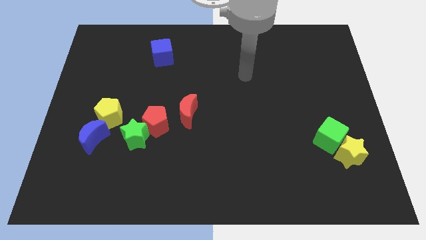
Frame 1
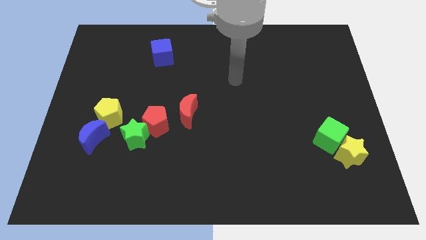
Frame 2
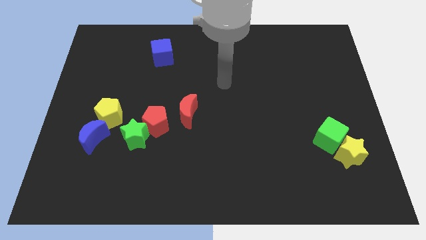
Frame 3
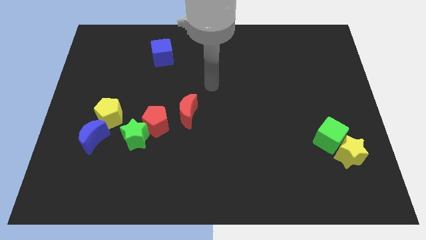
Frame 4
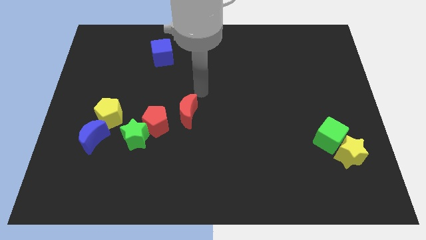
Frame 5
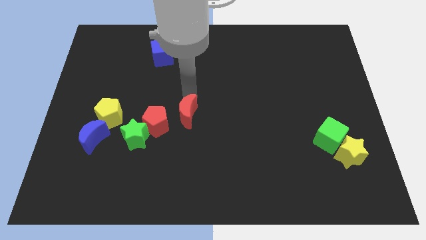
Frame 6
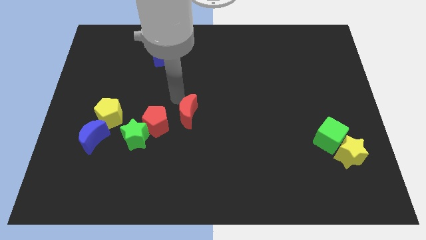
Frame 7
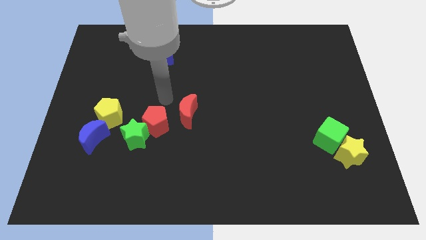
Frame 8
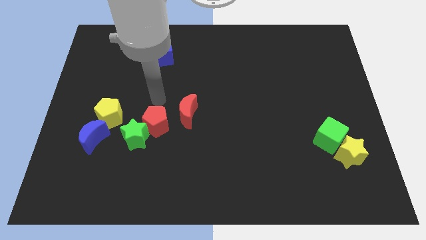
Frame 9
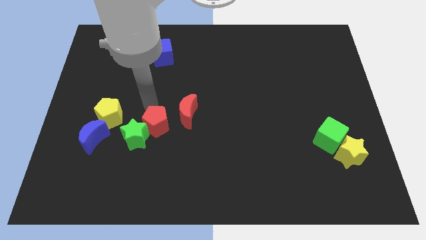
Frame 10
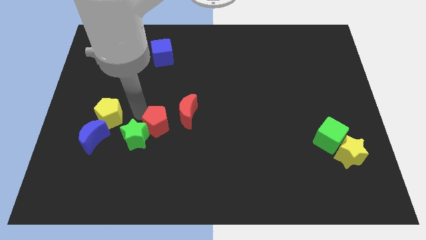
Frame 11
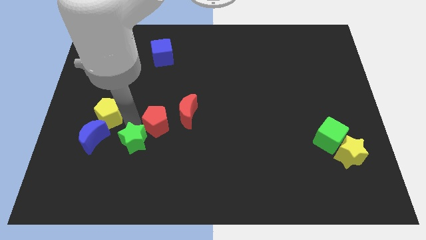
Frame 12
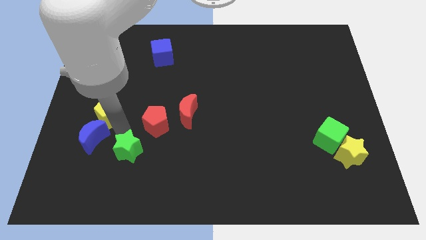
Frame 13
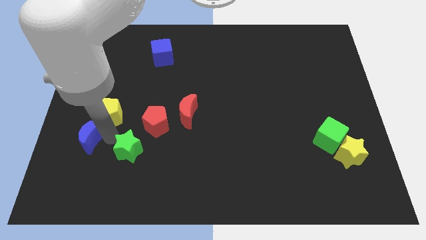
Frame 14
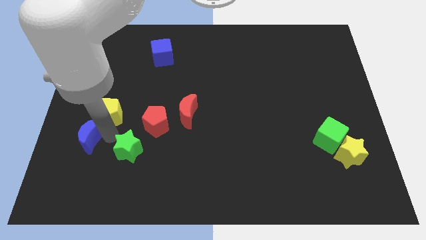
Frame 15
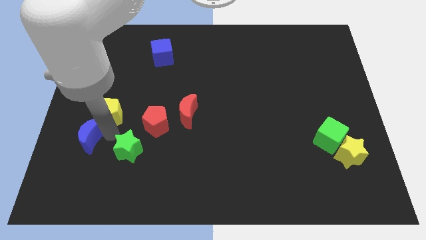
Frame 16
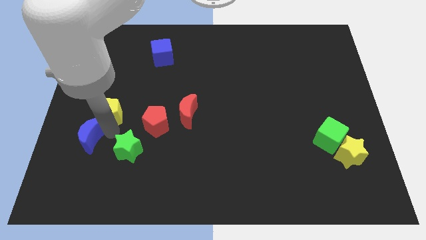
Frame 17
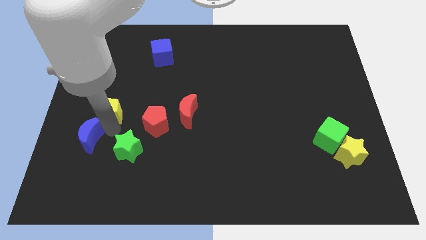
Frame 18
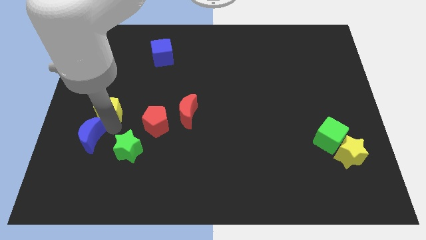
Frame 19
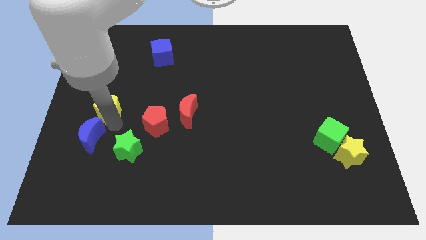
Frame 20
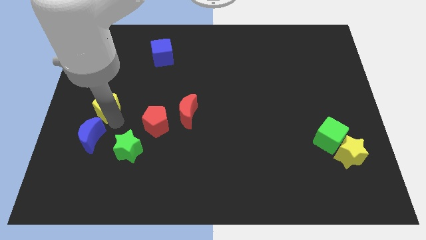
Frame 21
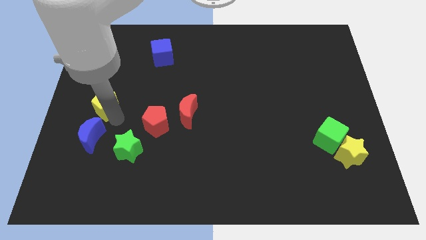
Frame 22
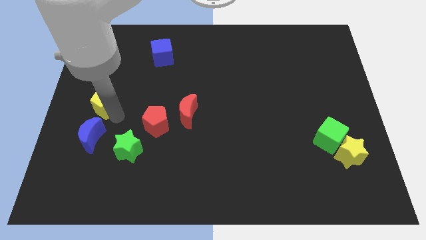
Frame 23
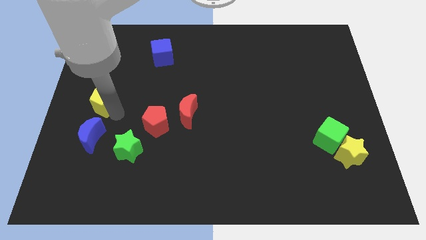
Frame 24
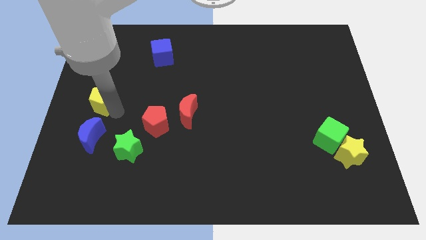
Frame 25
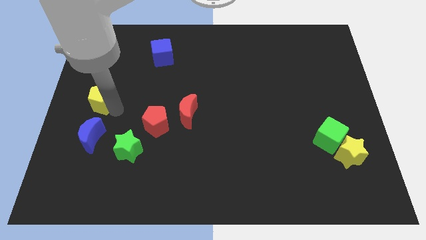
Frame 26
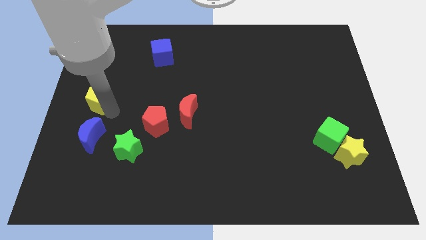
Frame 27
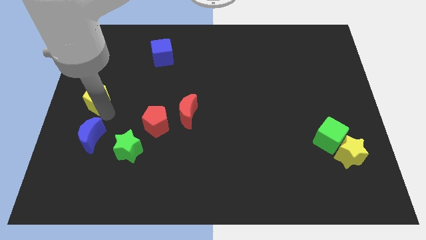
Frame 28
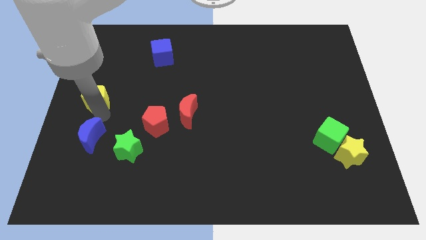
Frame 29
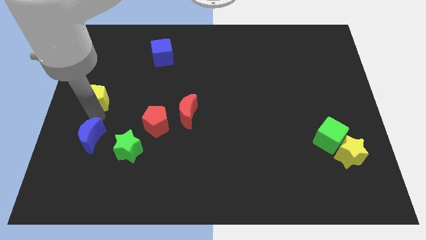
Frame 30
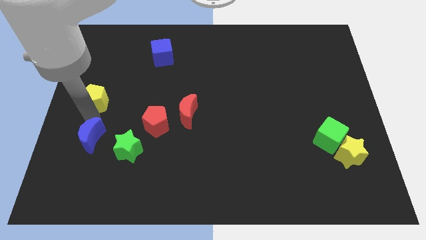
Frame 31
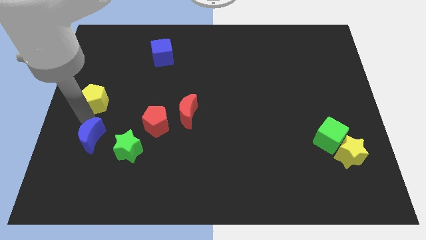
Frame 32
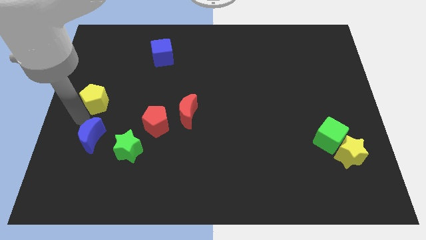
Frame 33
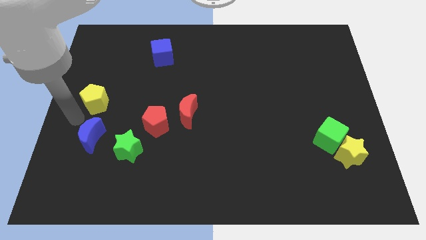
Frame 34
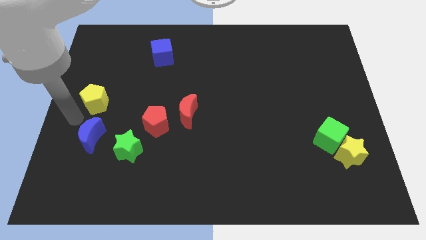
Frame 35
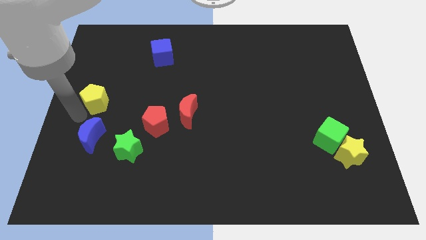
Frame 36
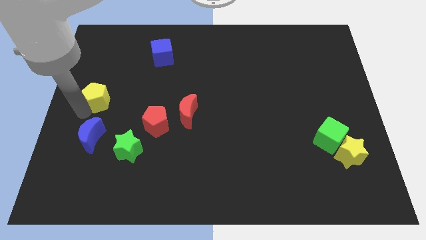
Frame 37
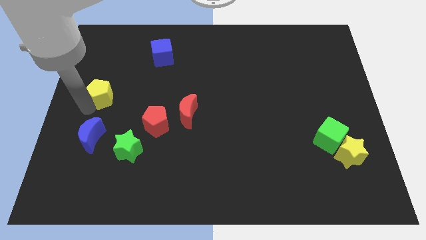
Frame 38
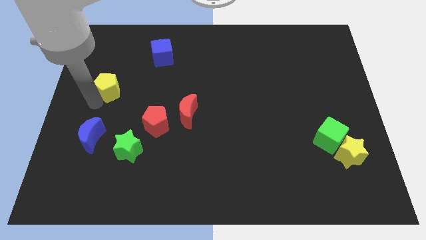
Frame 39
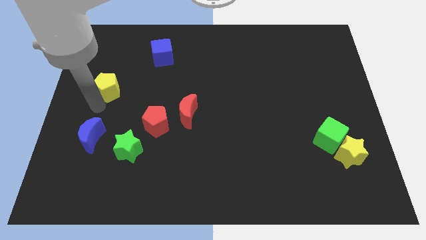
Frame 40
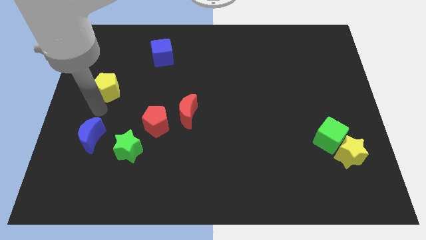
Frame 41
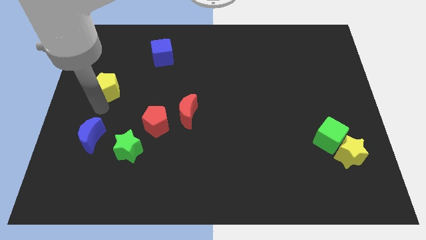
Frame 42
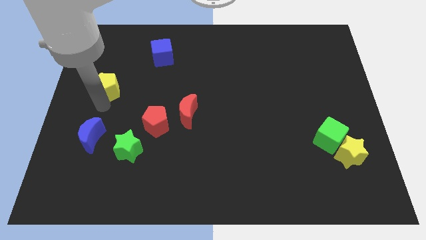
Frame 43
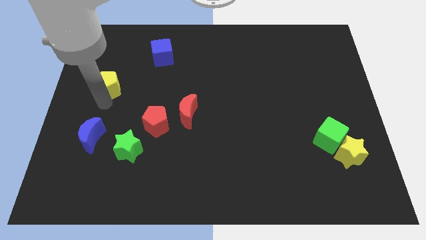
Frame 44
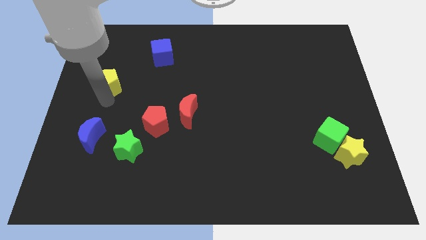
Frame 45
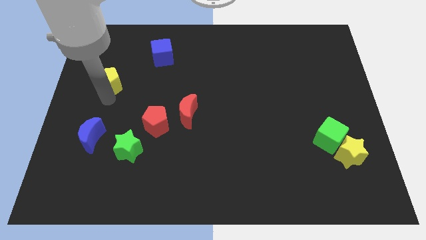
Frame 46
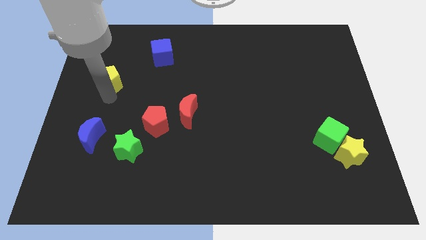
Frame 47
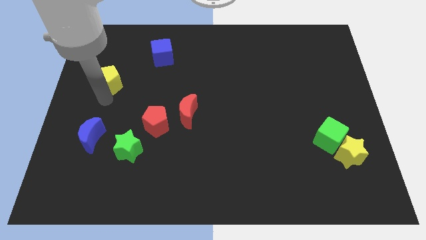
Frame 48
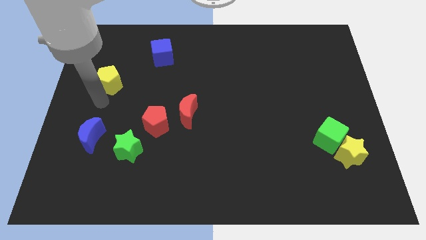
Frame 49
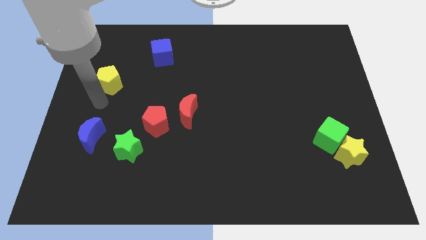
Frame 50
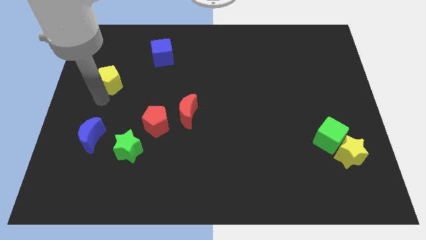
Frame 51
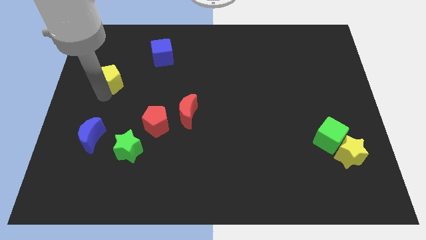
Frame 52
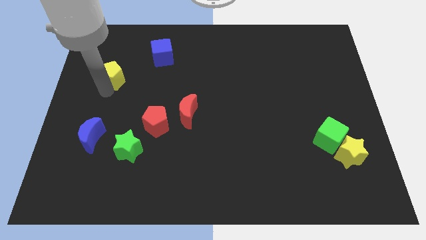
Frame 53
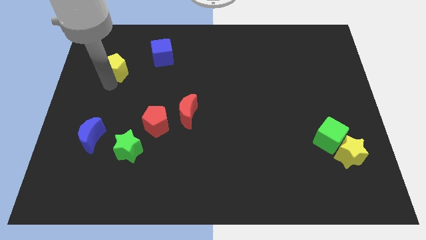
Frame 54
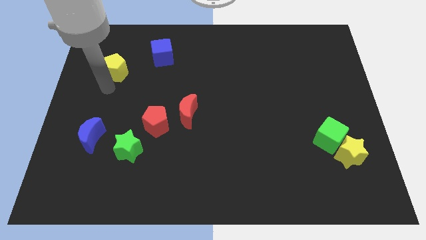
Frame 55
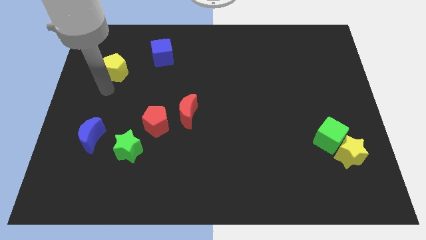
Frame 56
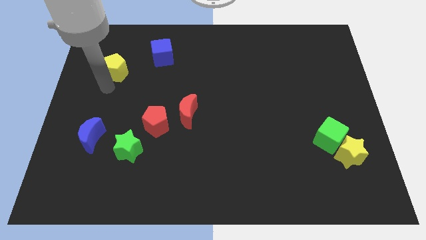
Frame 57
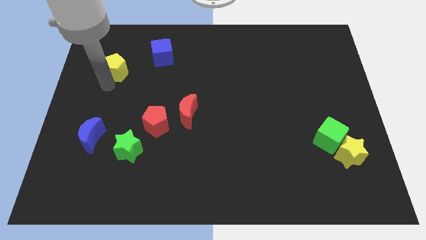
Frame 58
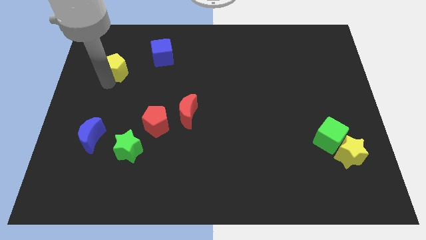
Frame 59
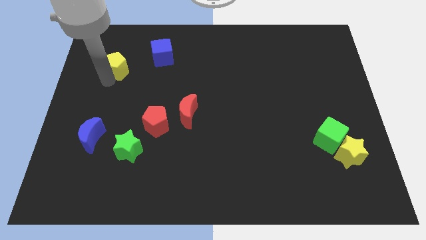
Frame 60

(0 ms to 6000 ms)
put the yellow pentagon to the left of the blue cube

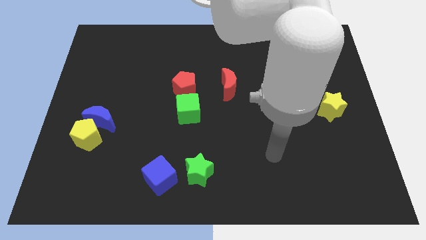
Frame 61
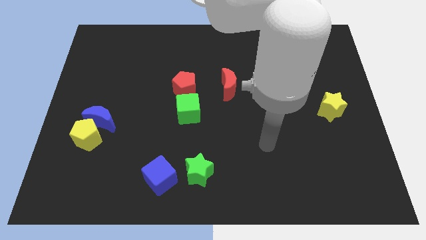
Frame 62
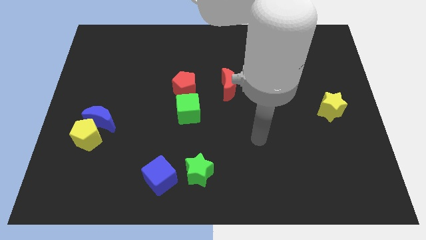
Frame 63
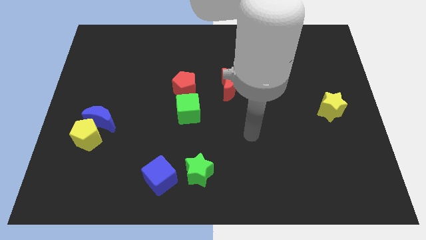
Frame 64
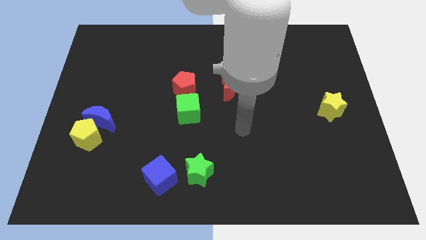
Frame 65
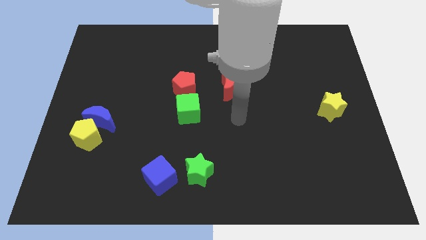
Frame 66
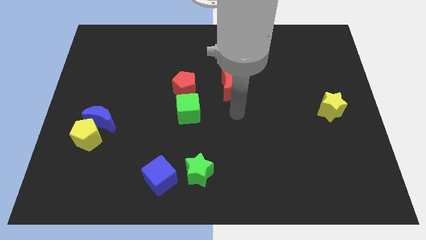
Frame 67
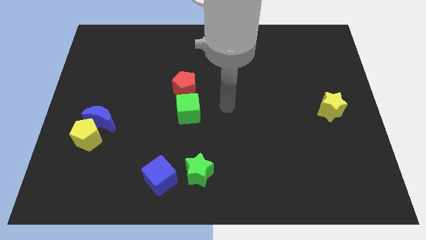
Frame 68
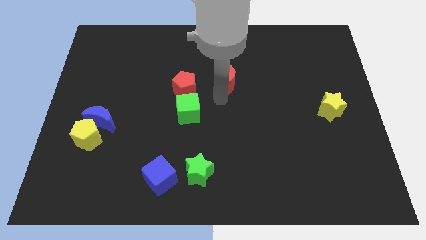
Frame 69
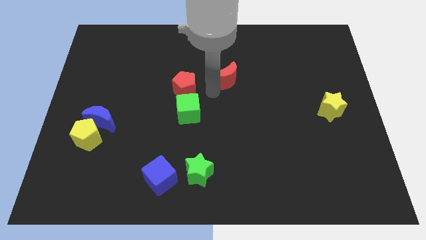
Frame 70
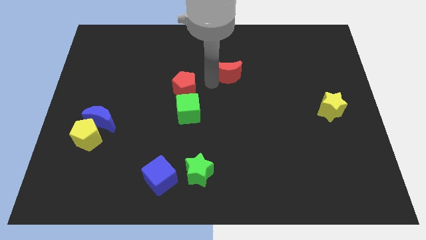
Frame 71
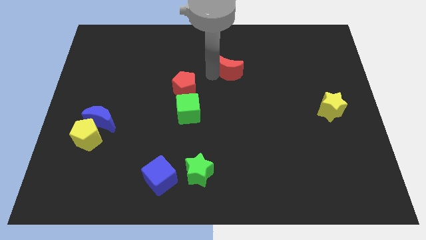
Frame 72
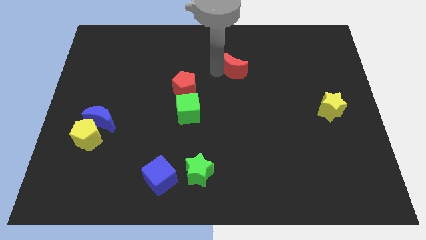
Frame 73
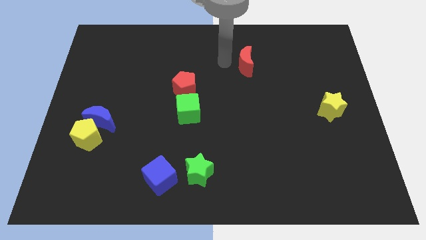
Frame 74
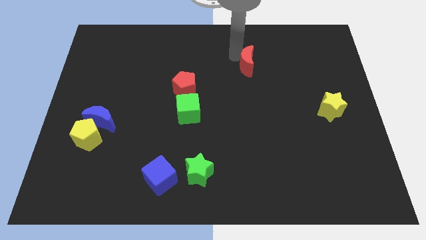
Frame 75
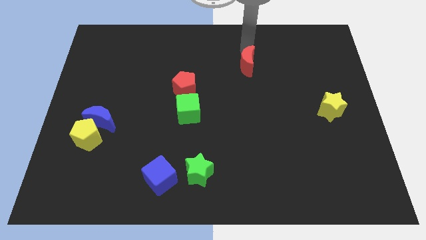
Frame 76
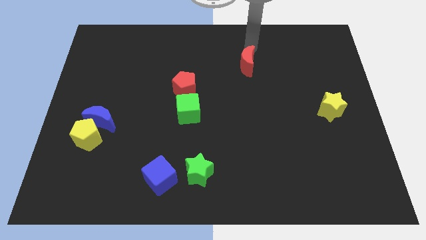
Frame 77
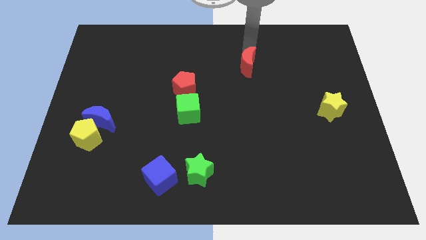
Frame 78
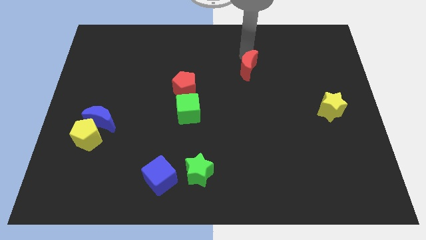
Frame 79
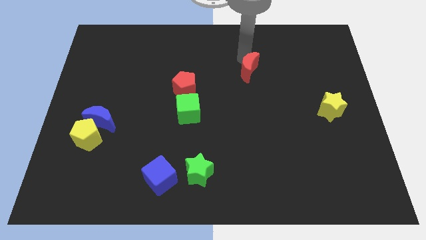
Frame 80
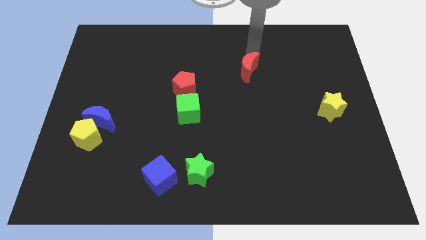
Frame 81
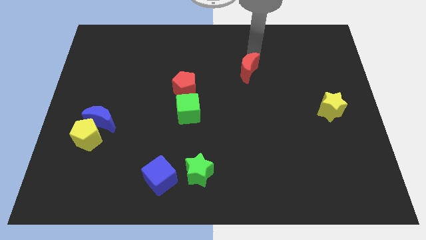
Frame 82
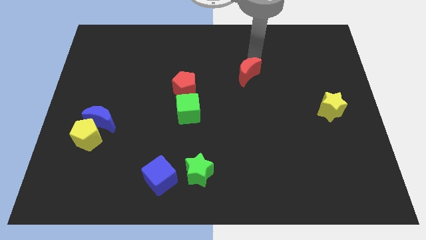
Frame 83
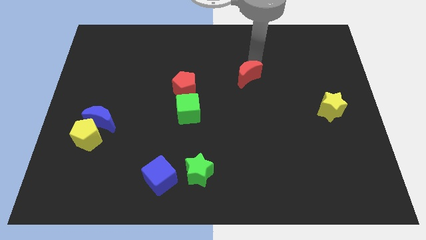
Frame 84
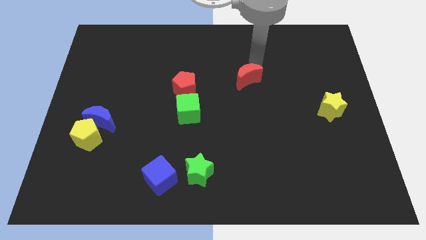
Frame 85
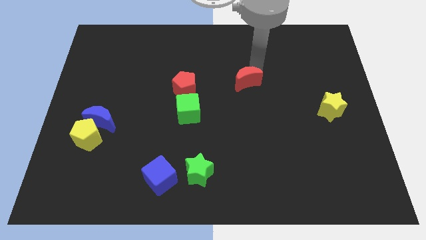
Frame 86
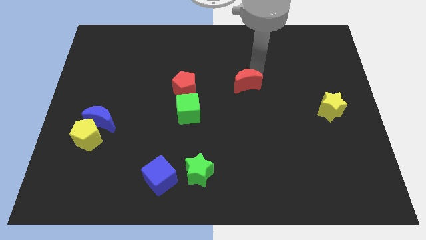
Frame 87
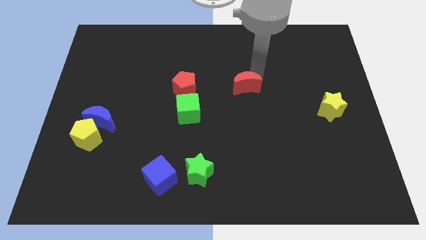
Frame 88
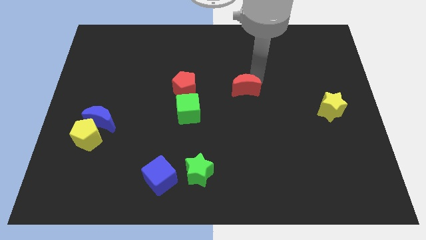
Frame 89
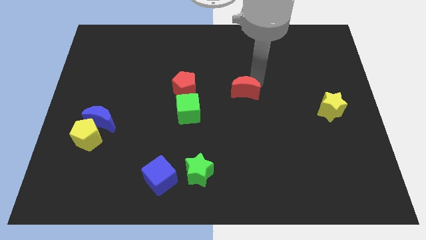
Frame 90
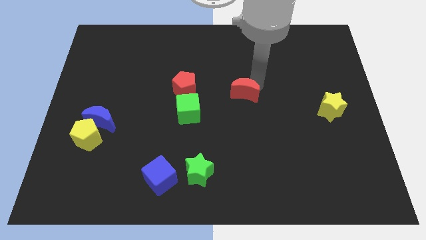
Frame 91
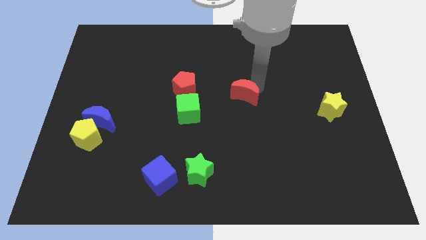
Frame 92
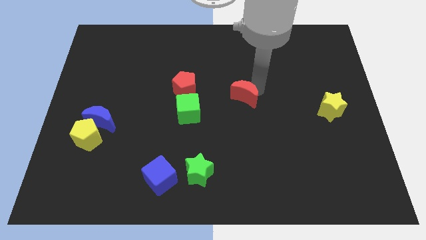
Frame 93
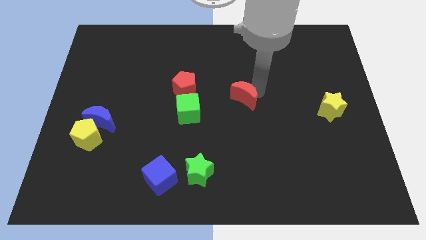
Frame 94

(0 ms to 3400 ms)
slide the red moon to the right of the green cube
